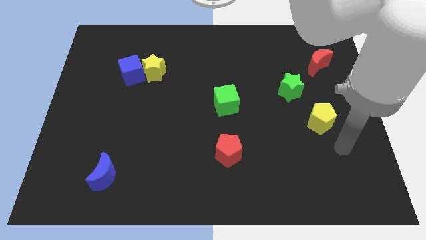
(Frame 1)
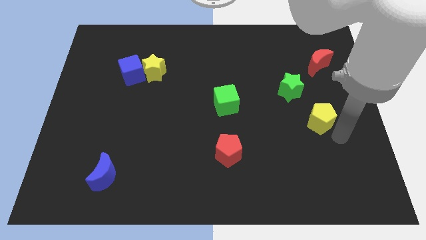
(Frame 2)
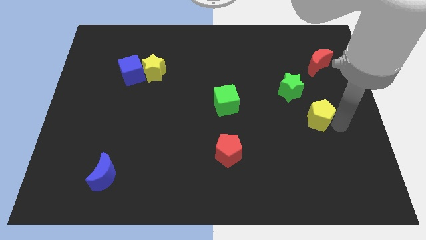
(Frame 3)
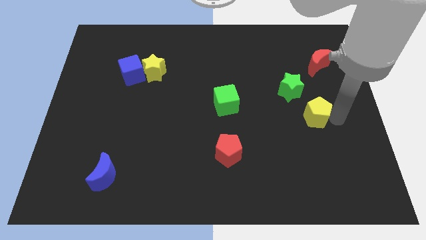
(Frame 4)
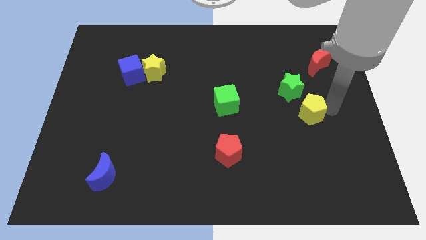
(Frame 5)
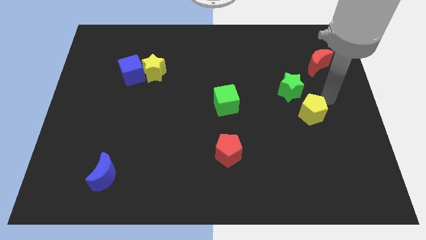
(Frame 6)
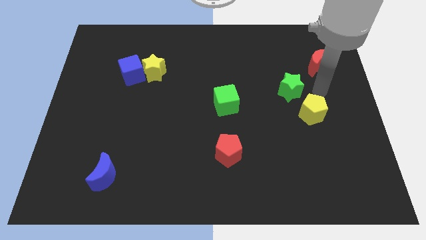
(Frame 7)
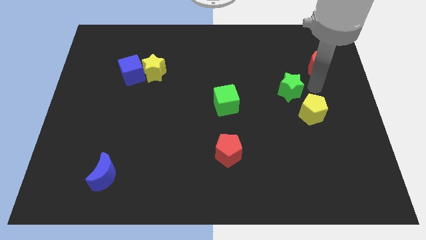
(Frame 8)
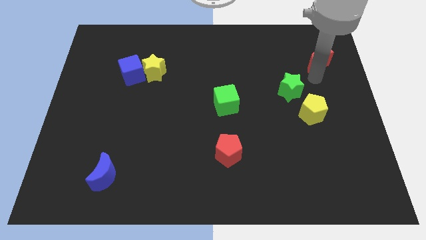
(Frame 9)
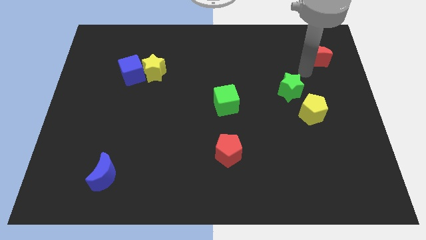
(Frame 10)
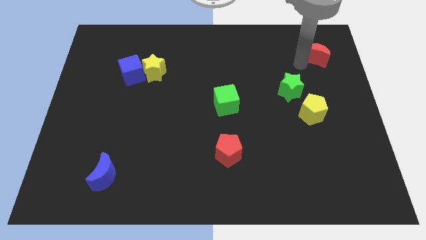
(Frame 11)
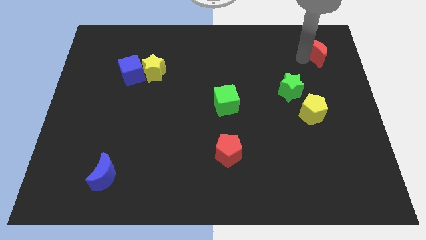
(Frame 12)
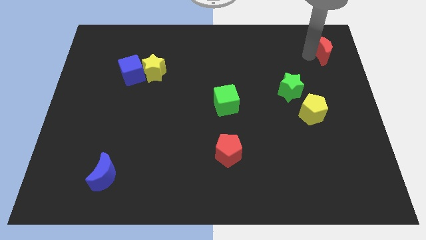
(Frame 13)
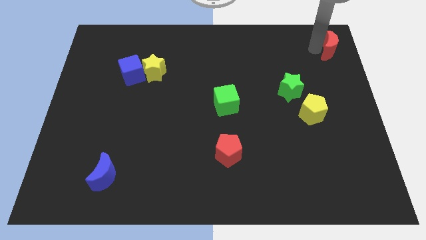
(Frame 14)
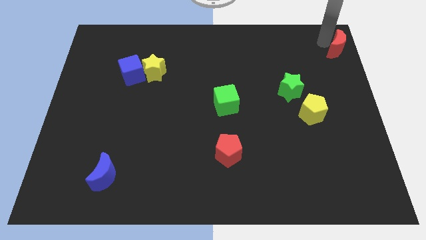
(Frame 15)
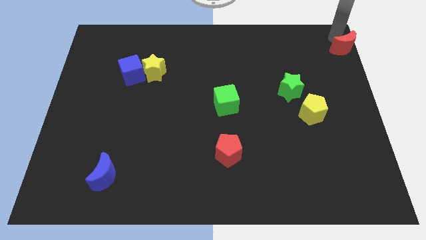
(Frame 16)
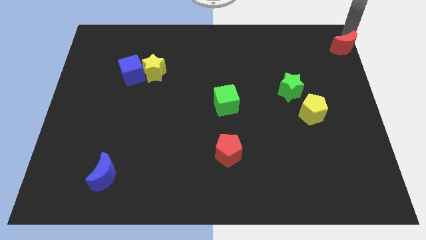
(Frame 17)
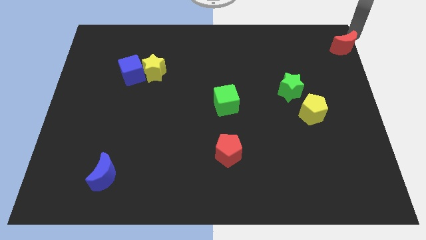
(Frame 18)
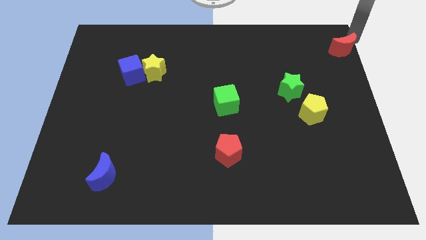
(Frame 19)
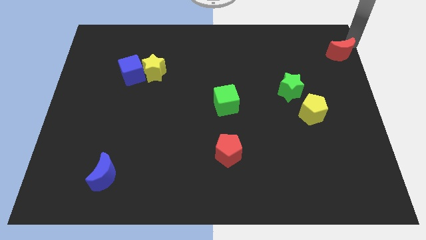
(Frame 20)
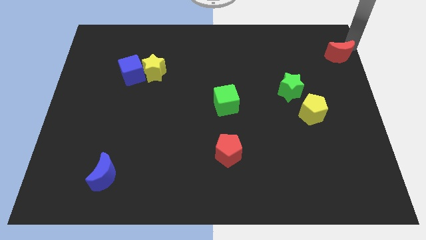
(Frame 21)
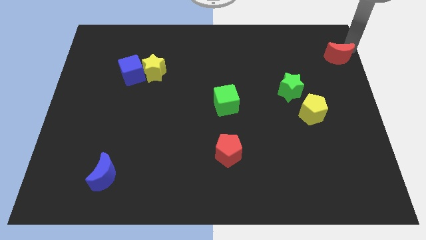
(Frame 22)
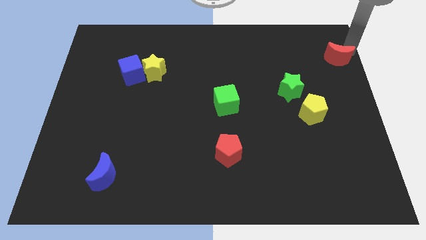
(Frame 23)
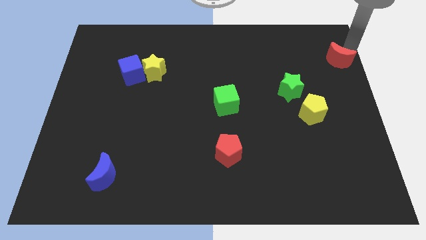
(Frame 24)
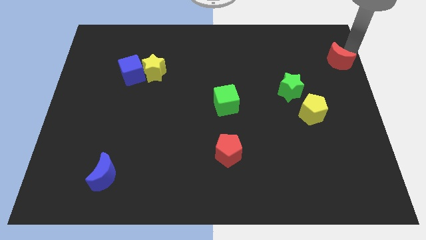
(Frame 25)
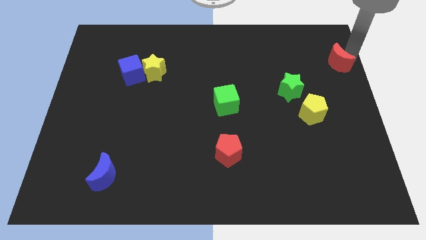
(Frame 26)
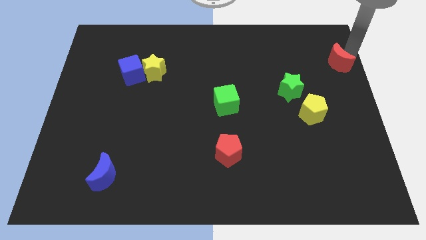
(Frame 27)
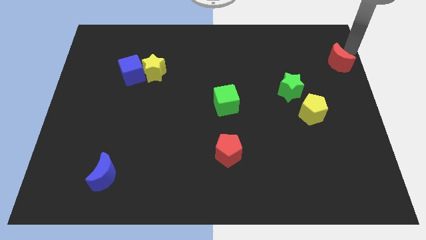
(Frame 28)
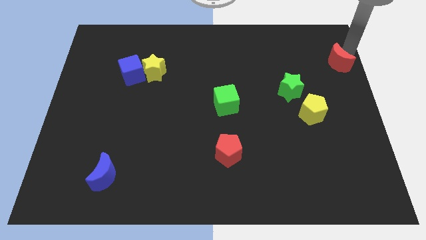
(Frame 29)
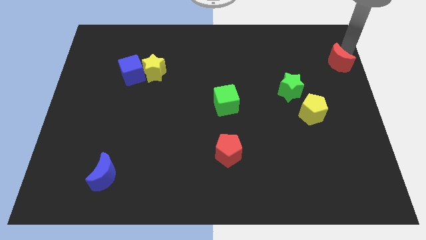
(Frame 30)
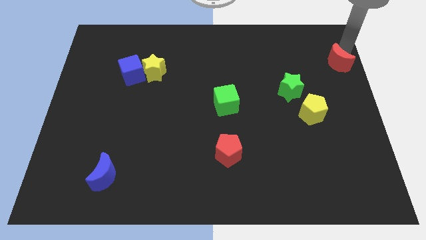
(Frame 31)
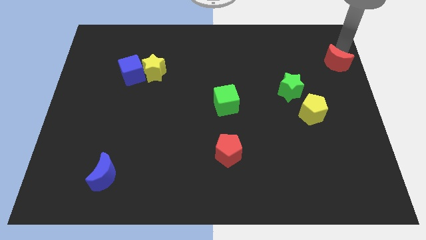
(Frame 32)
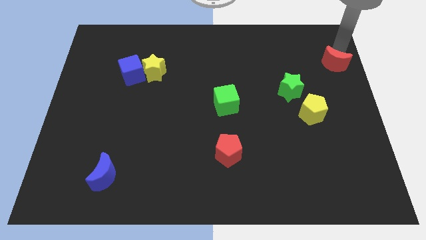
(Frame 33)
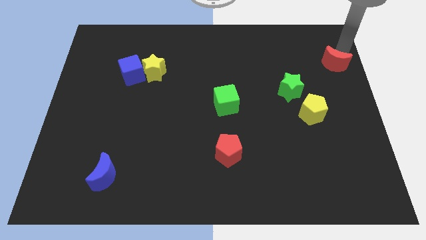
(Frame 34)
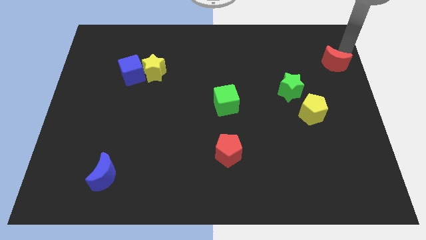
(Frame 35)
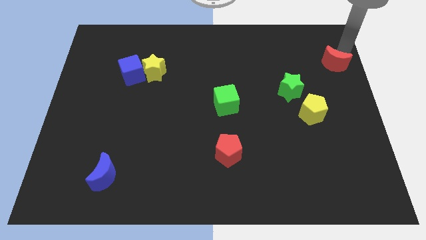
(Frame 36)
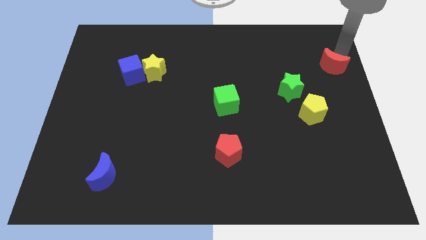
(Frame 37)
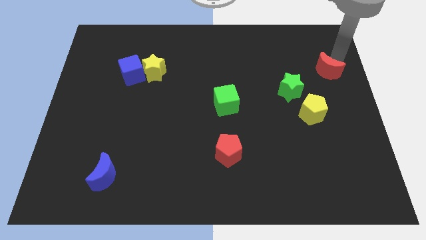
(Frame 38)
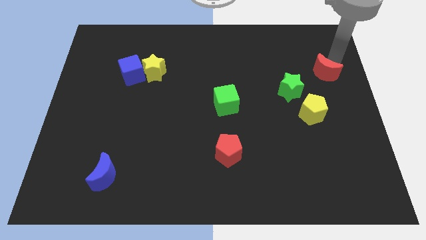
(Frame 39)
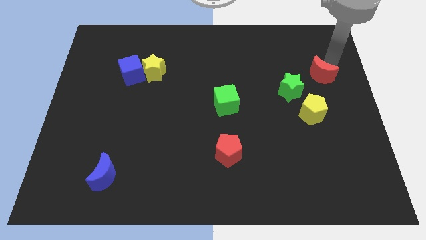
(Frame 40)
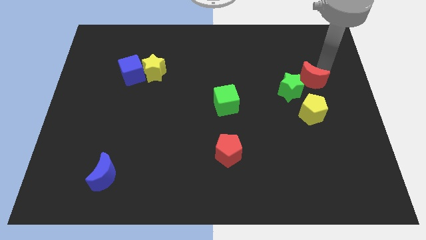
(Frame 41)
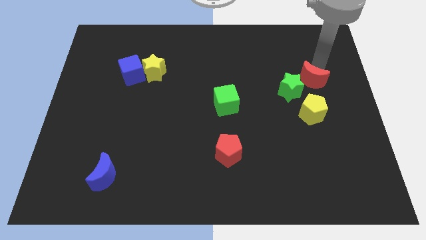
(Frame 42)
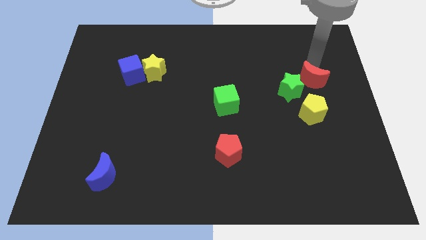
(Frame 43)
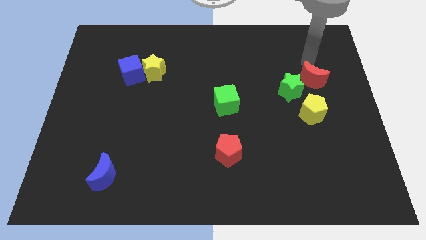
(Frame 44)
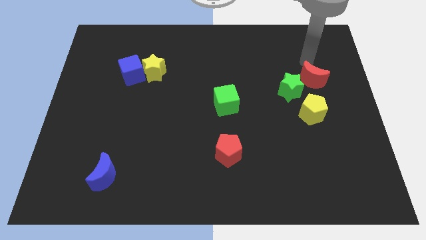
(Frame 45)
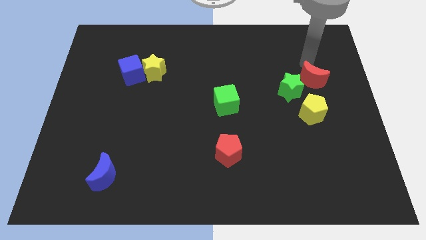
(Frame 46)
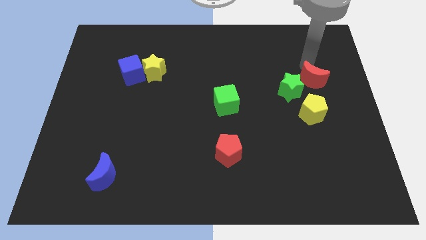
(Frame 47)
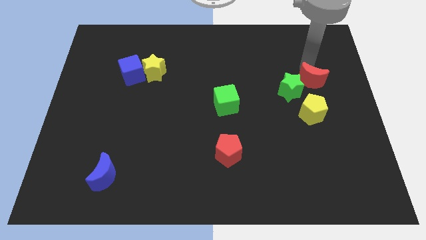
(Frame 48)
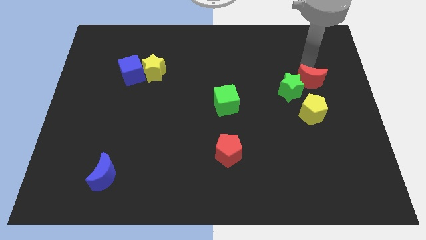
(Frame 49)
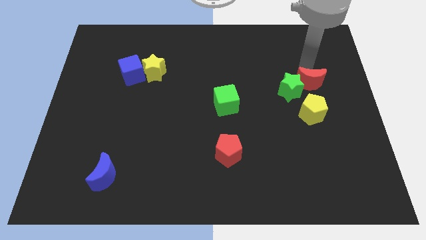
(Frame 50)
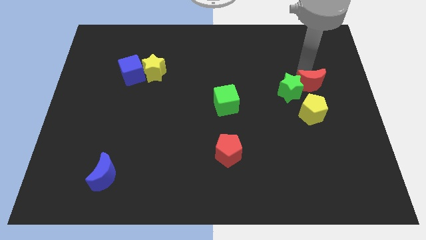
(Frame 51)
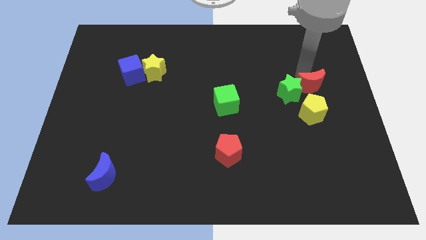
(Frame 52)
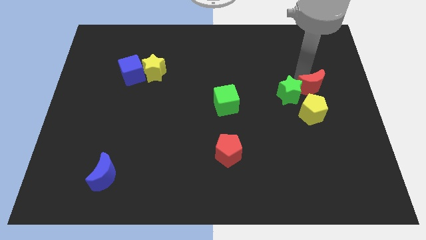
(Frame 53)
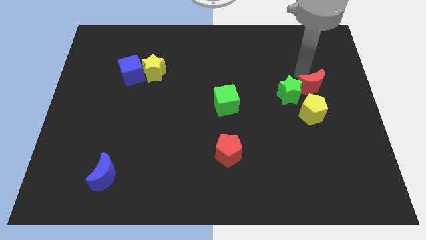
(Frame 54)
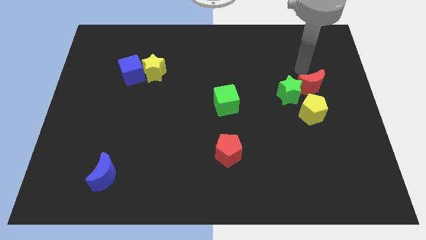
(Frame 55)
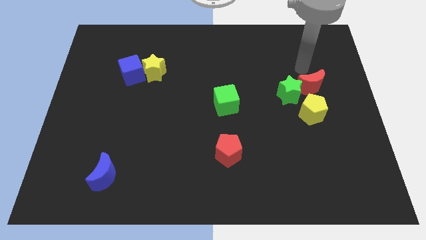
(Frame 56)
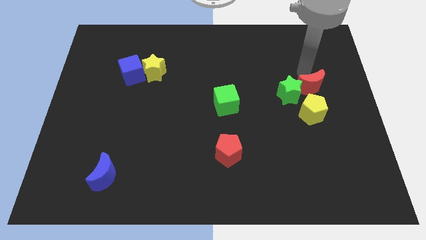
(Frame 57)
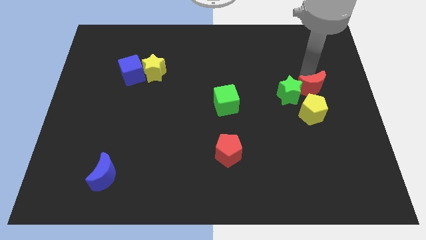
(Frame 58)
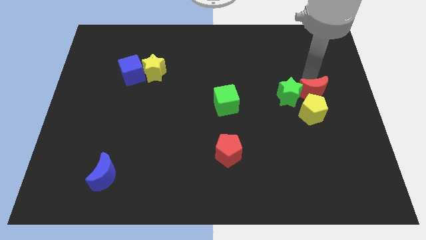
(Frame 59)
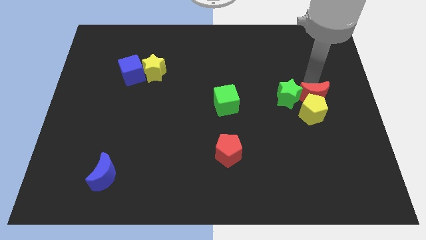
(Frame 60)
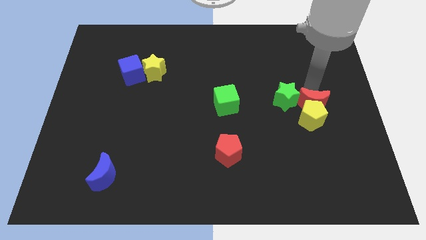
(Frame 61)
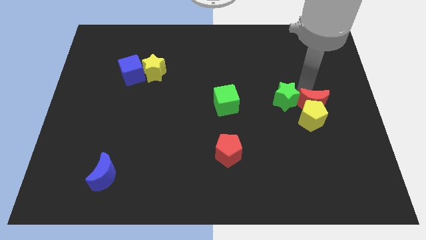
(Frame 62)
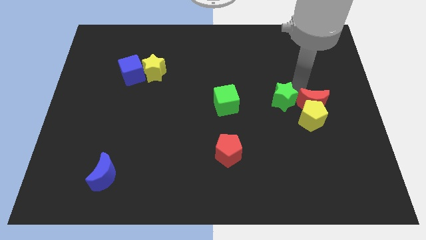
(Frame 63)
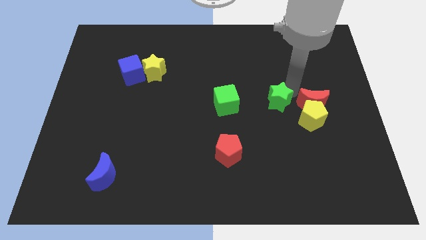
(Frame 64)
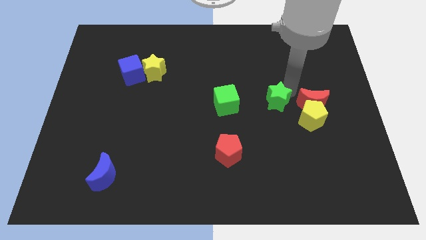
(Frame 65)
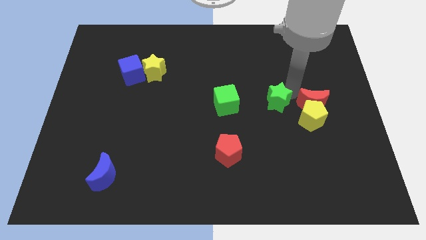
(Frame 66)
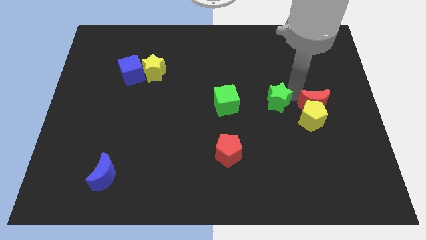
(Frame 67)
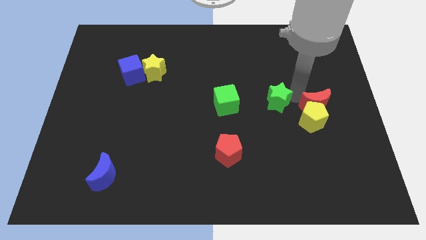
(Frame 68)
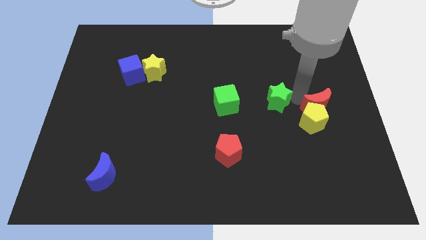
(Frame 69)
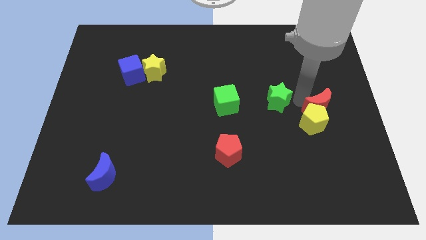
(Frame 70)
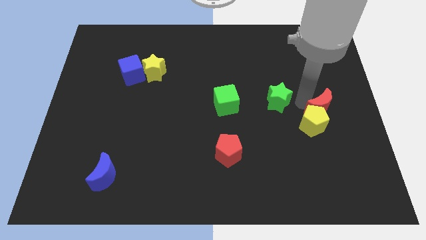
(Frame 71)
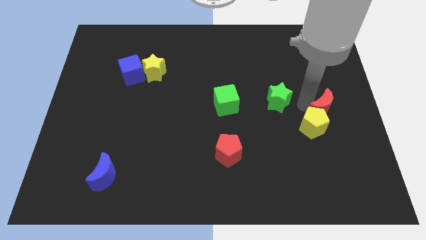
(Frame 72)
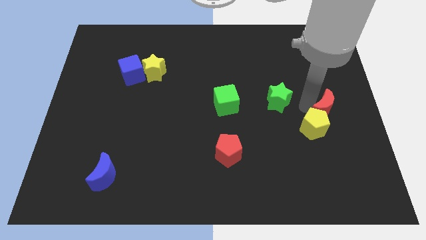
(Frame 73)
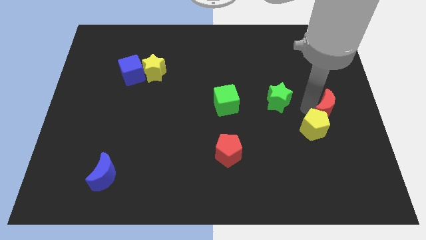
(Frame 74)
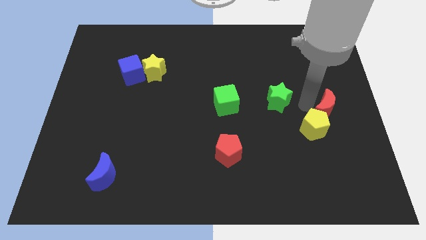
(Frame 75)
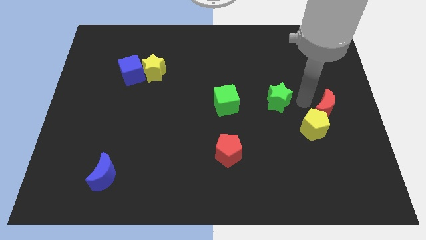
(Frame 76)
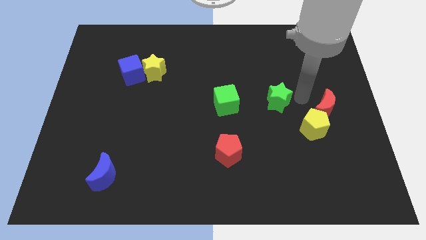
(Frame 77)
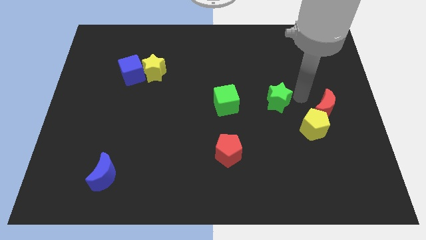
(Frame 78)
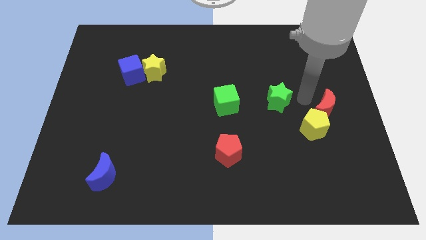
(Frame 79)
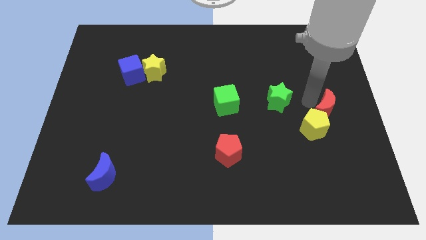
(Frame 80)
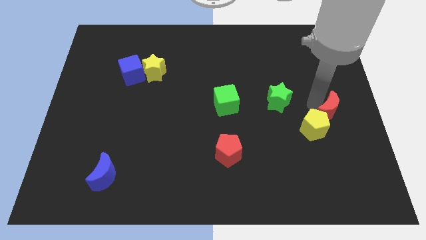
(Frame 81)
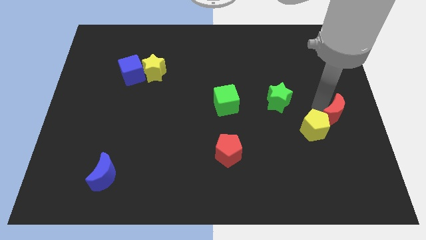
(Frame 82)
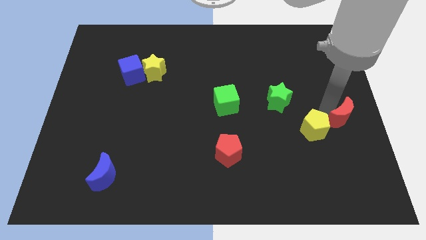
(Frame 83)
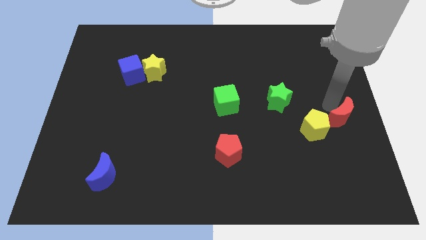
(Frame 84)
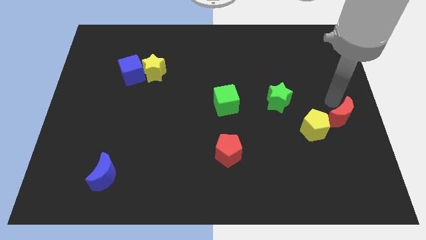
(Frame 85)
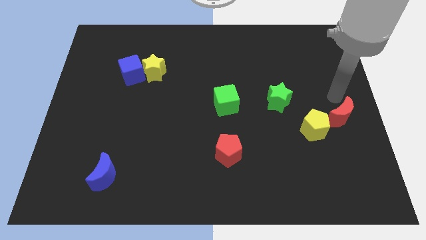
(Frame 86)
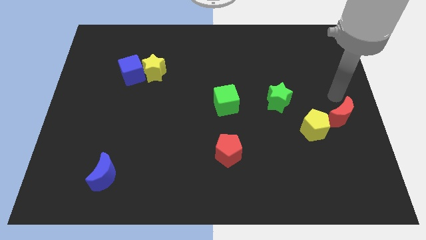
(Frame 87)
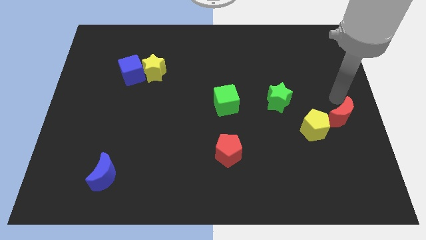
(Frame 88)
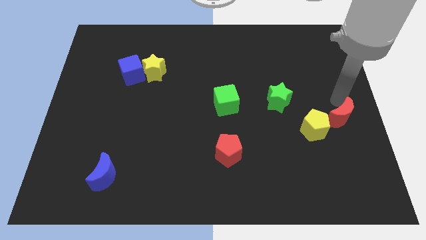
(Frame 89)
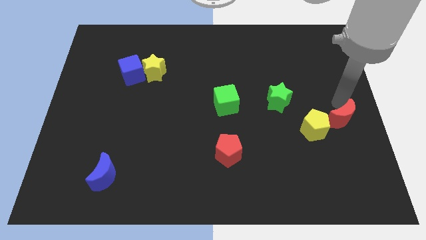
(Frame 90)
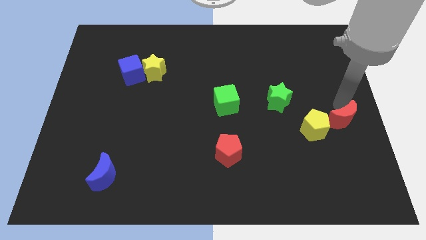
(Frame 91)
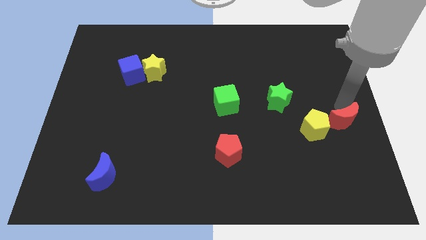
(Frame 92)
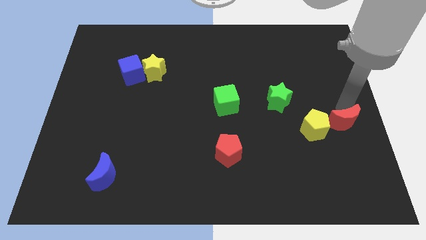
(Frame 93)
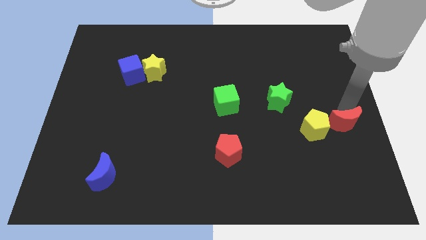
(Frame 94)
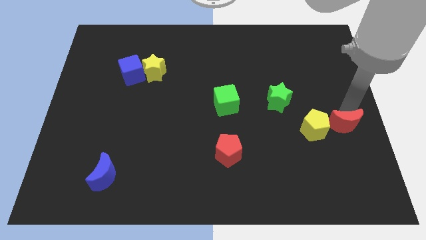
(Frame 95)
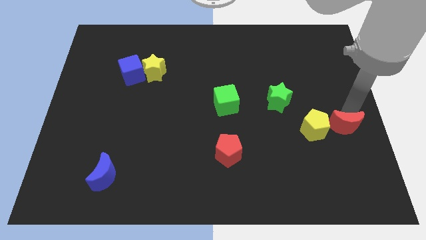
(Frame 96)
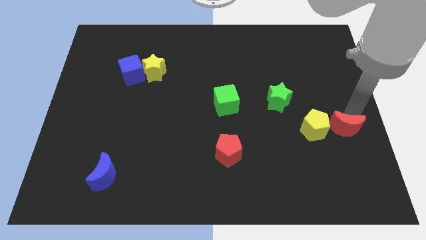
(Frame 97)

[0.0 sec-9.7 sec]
move the red moon downwards
